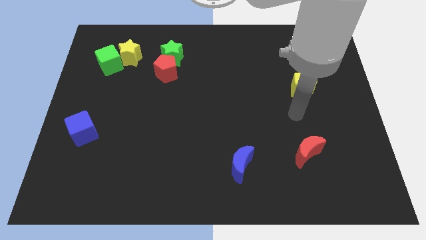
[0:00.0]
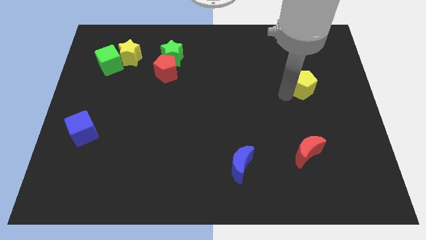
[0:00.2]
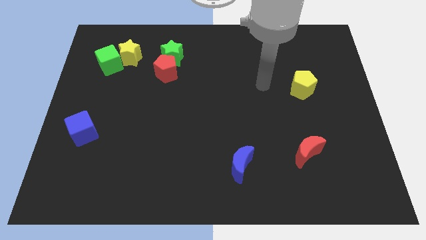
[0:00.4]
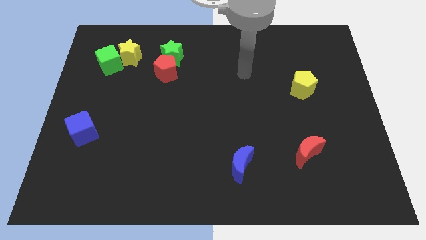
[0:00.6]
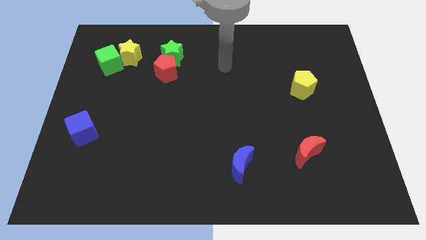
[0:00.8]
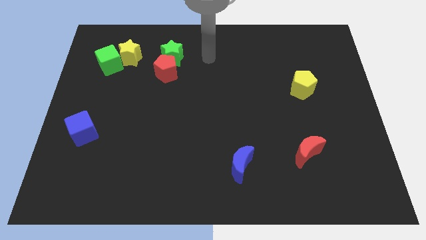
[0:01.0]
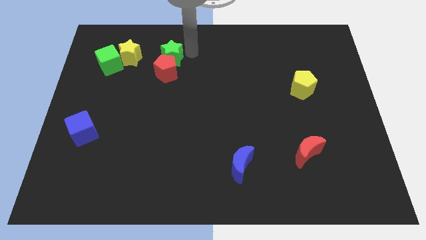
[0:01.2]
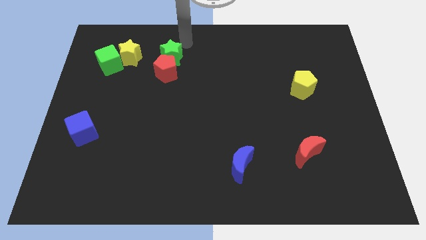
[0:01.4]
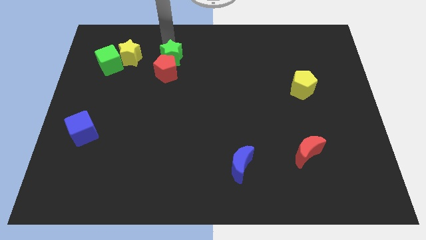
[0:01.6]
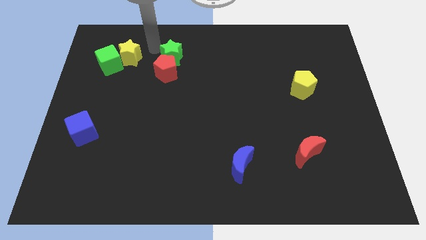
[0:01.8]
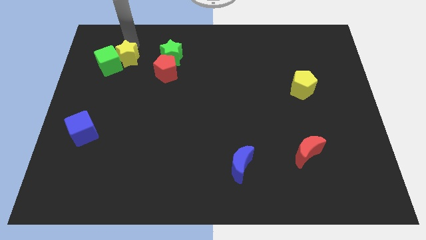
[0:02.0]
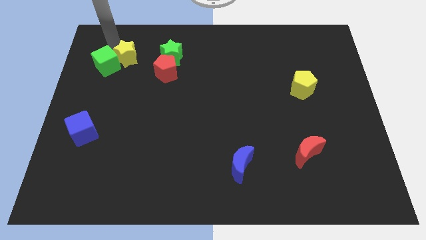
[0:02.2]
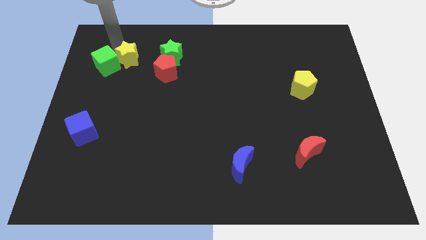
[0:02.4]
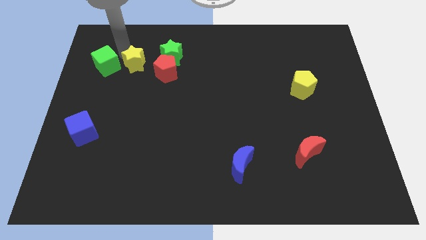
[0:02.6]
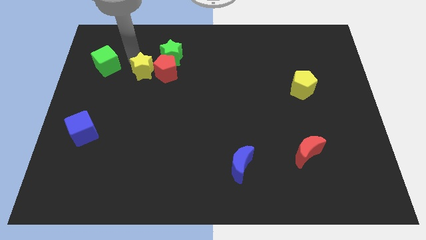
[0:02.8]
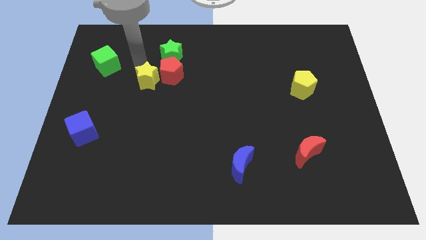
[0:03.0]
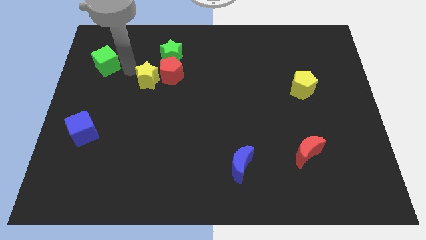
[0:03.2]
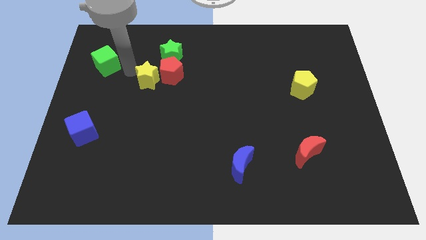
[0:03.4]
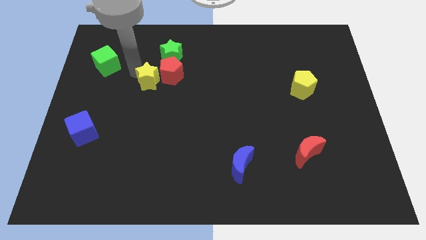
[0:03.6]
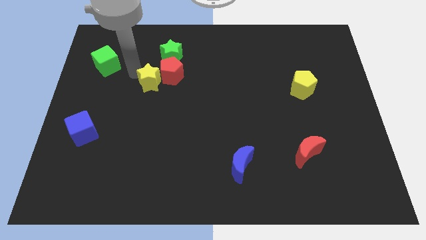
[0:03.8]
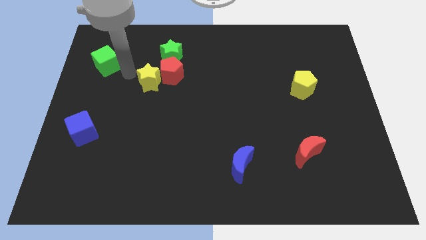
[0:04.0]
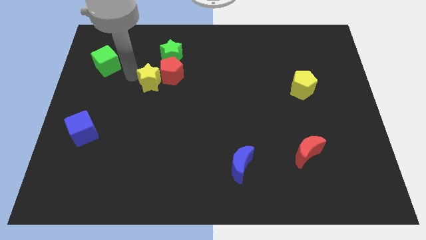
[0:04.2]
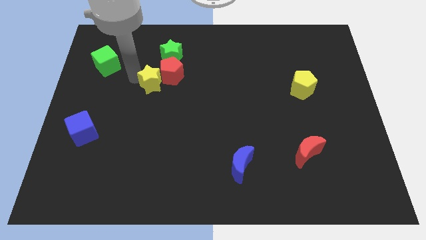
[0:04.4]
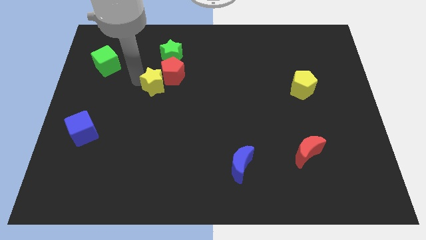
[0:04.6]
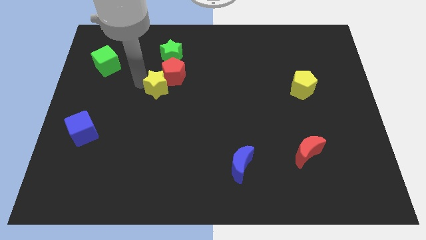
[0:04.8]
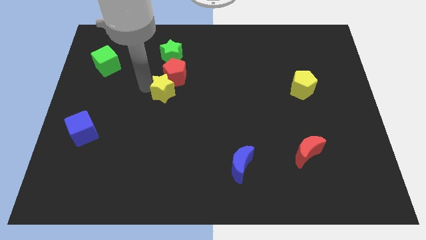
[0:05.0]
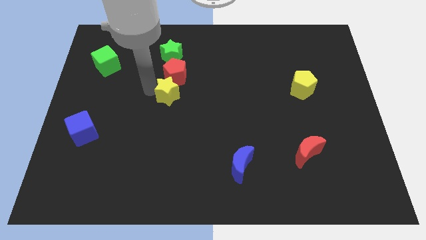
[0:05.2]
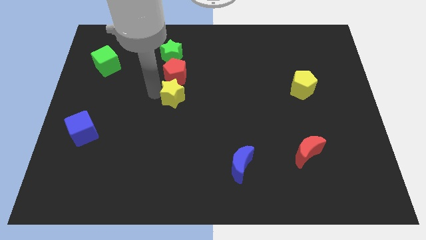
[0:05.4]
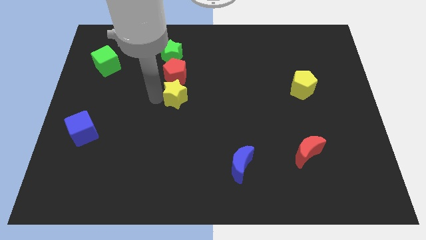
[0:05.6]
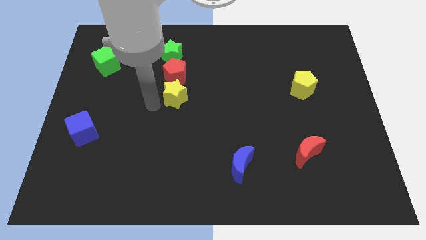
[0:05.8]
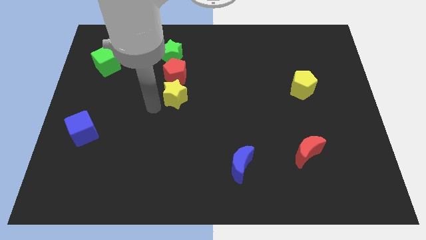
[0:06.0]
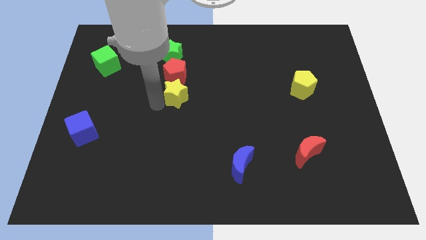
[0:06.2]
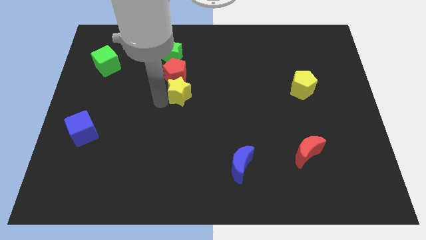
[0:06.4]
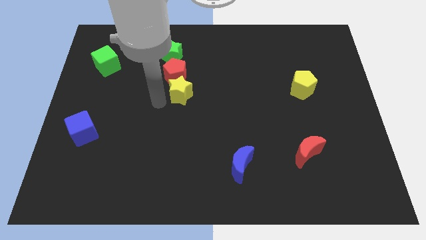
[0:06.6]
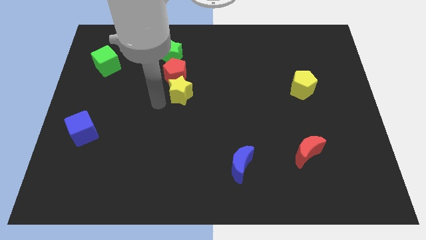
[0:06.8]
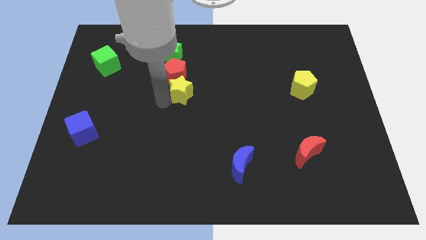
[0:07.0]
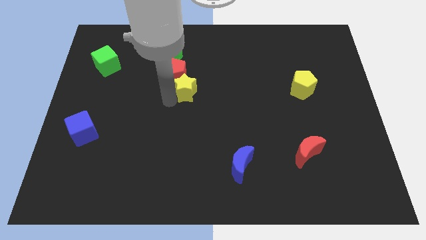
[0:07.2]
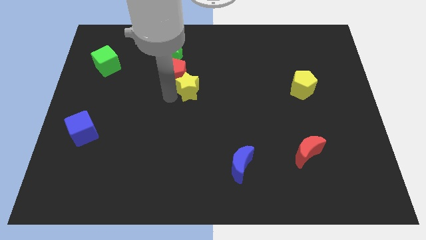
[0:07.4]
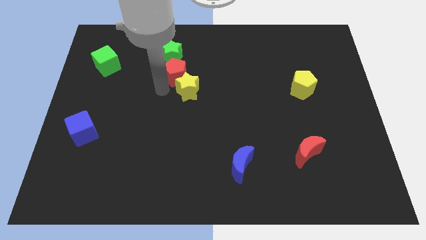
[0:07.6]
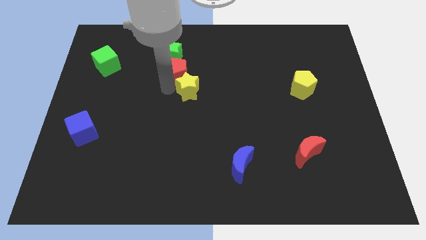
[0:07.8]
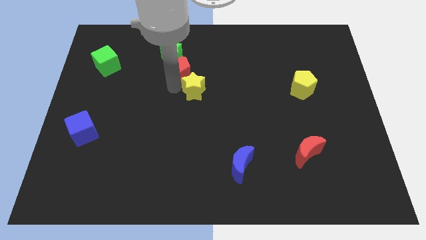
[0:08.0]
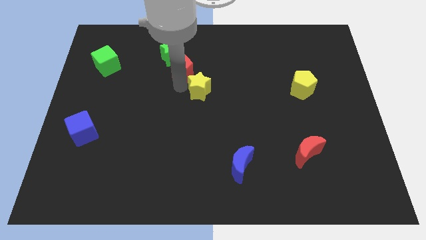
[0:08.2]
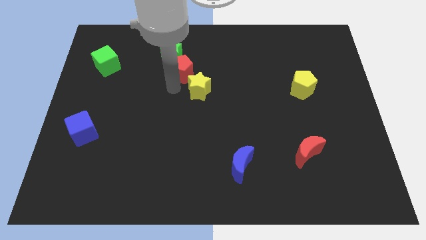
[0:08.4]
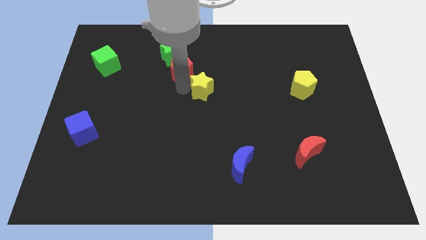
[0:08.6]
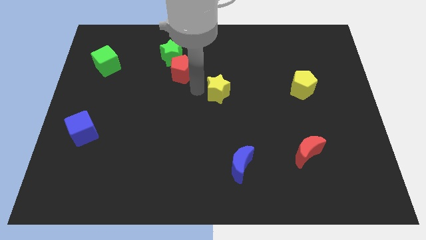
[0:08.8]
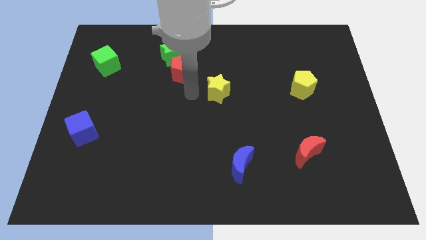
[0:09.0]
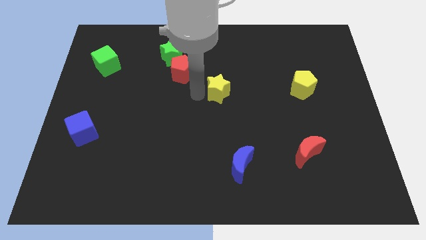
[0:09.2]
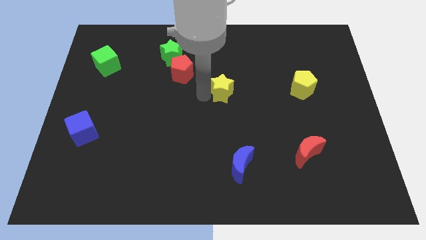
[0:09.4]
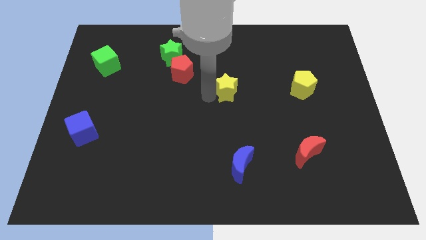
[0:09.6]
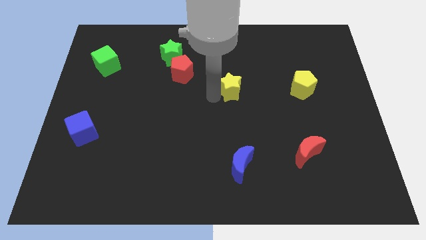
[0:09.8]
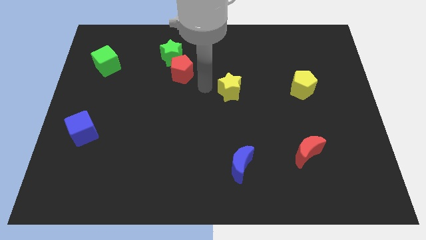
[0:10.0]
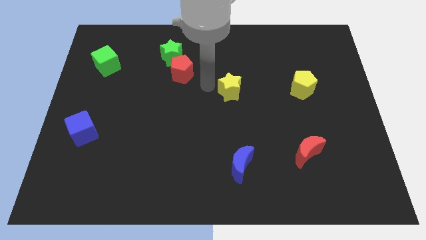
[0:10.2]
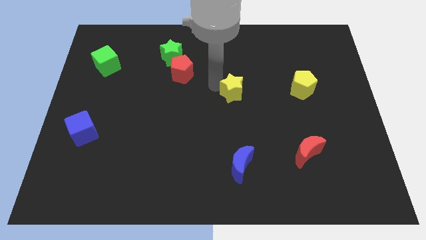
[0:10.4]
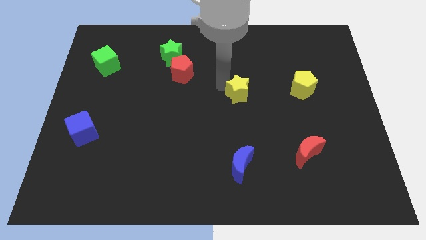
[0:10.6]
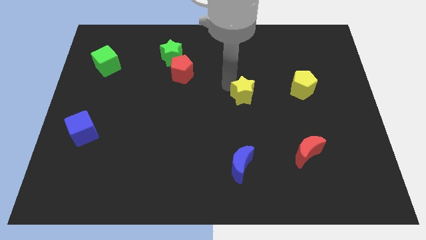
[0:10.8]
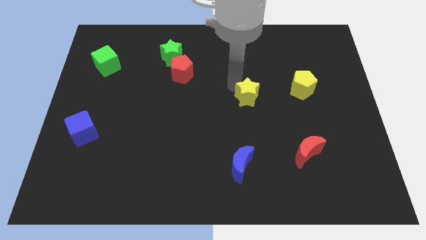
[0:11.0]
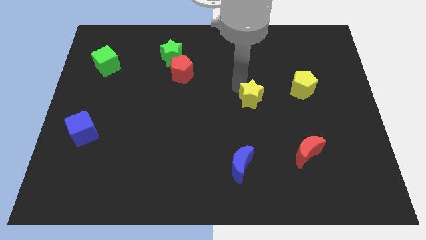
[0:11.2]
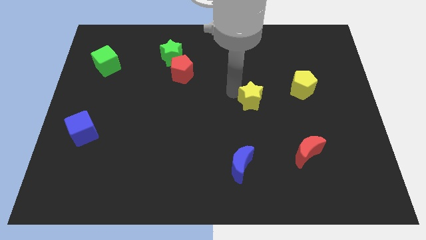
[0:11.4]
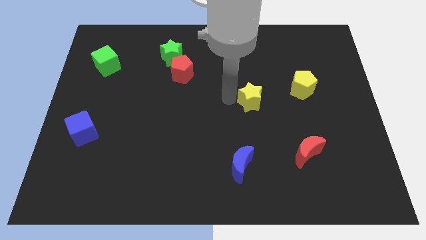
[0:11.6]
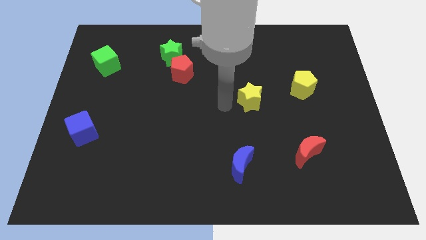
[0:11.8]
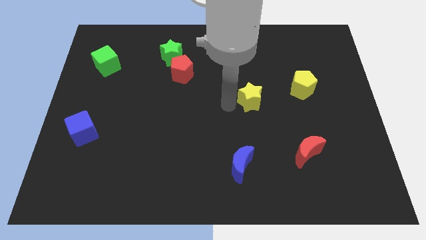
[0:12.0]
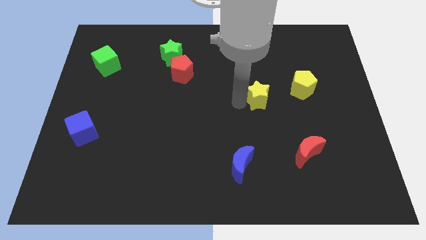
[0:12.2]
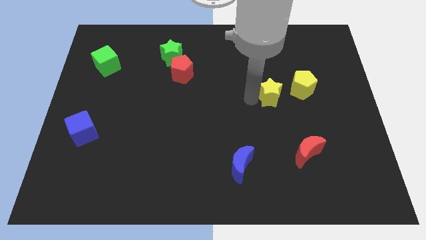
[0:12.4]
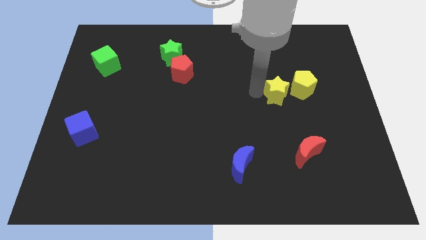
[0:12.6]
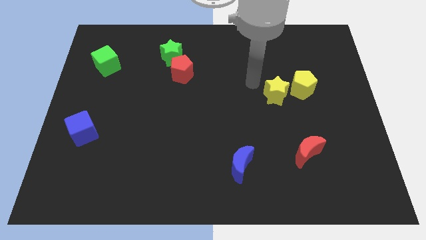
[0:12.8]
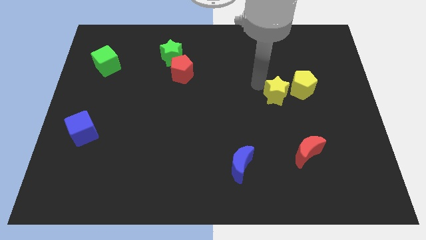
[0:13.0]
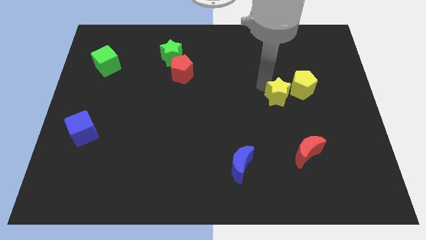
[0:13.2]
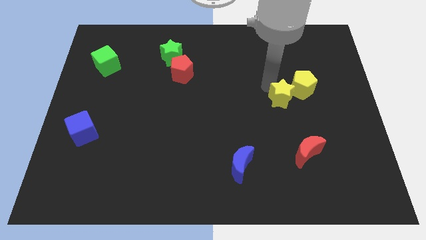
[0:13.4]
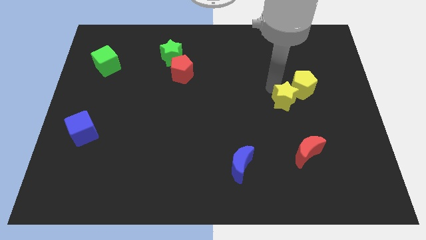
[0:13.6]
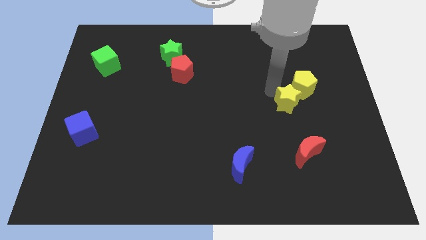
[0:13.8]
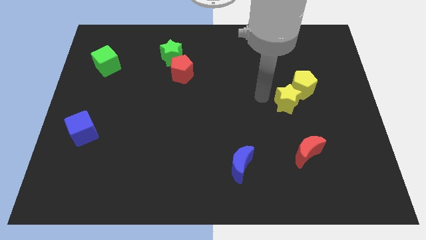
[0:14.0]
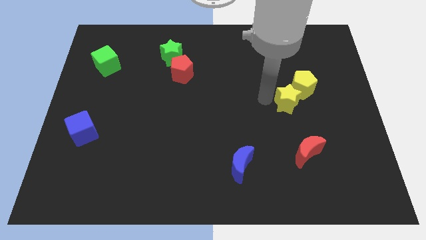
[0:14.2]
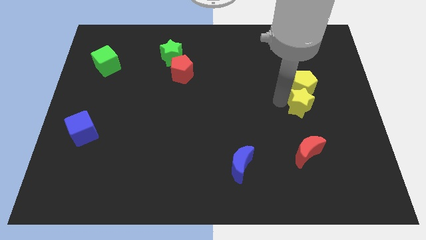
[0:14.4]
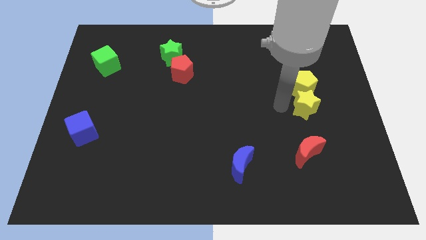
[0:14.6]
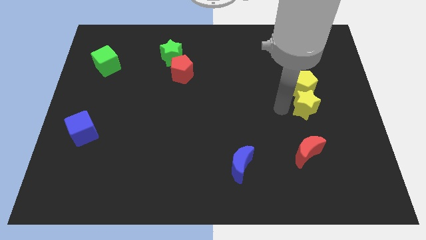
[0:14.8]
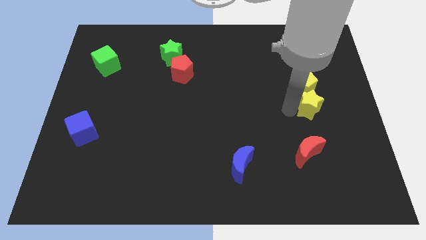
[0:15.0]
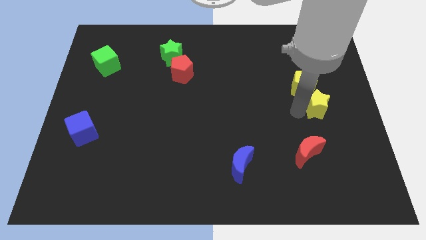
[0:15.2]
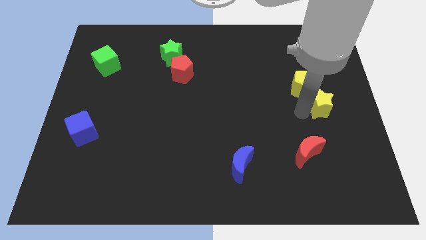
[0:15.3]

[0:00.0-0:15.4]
put the yellow star to the center right
